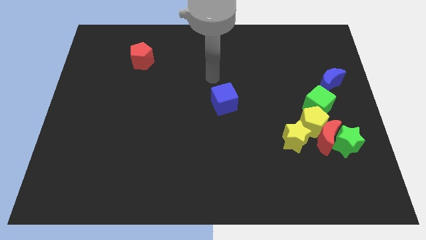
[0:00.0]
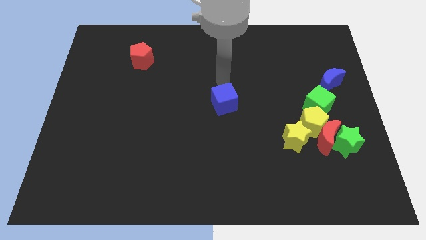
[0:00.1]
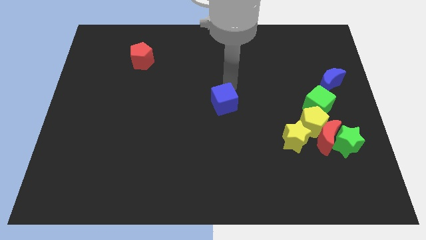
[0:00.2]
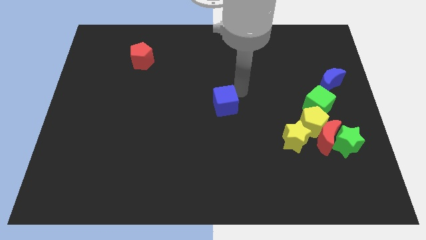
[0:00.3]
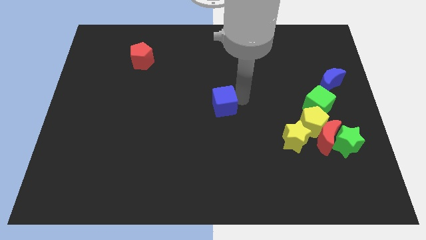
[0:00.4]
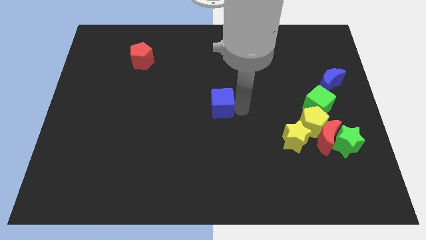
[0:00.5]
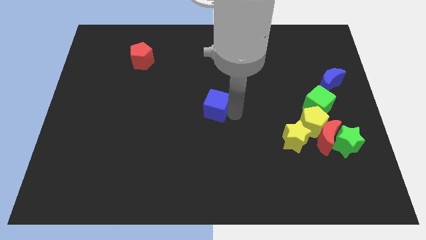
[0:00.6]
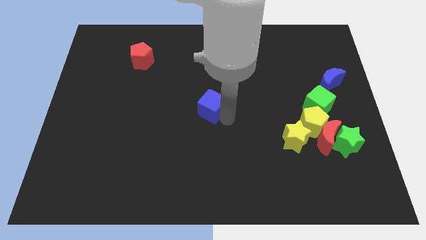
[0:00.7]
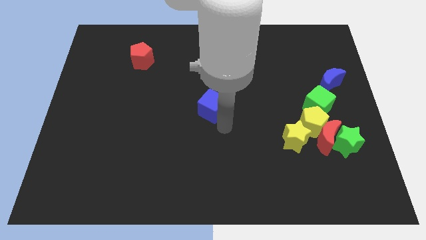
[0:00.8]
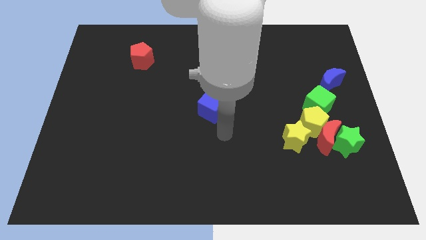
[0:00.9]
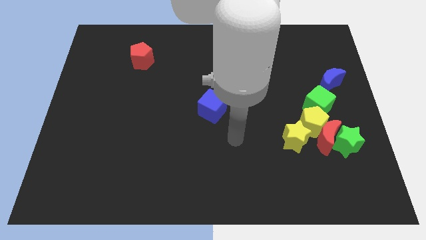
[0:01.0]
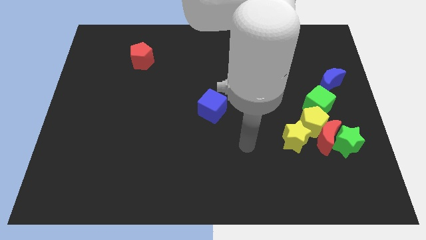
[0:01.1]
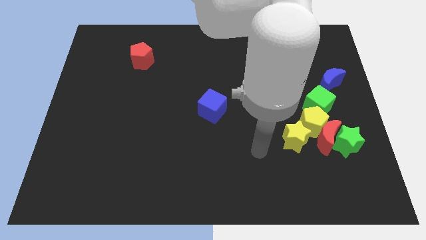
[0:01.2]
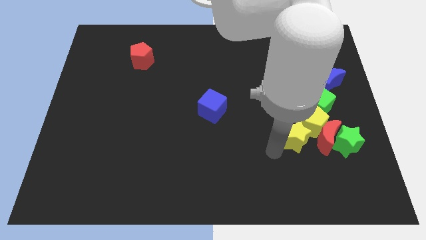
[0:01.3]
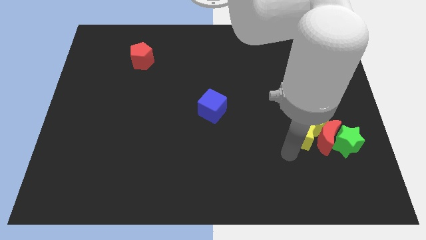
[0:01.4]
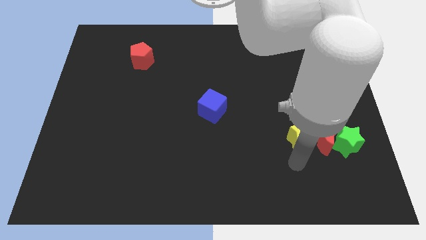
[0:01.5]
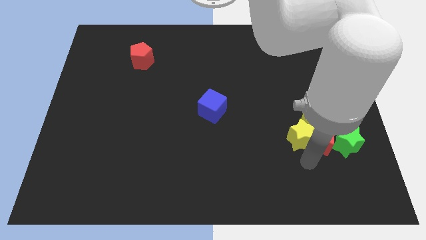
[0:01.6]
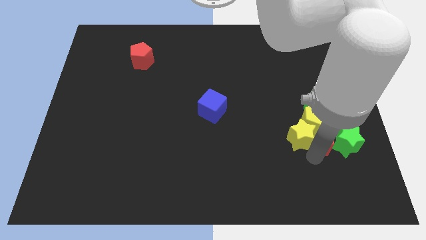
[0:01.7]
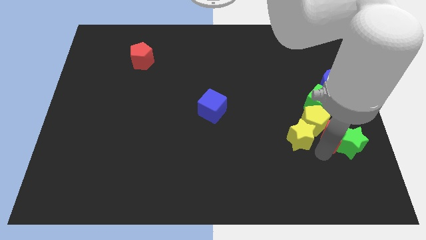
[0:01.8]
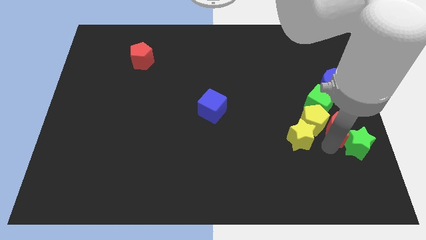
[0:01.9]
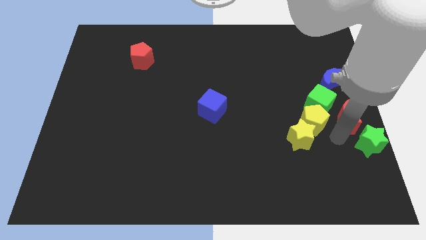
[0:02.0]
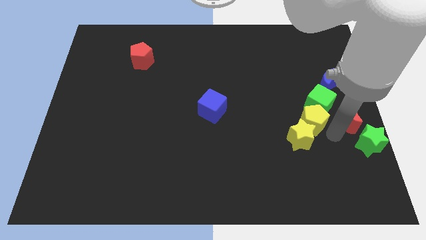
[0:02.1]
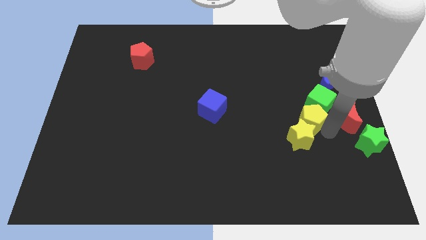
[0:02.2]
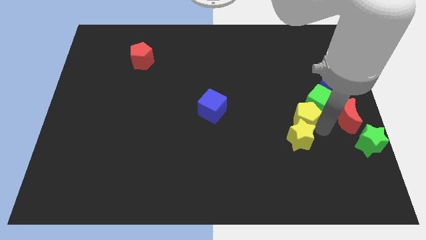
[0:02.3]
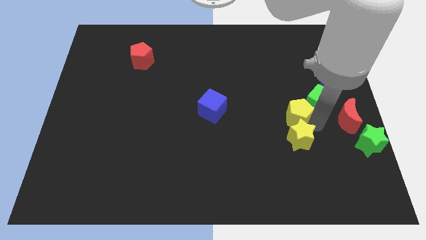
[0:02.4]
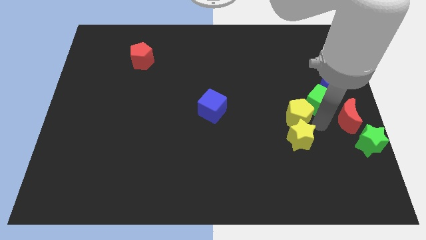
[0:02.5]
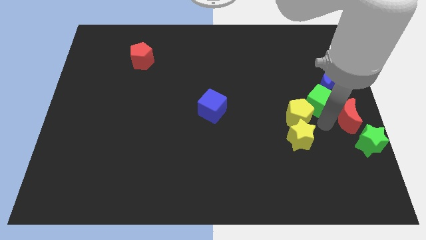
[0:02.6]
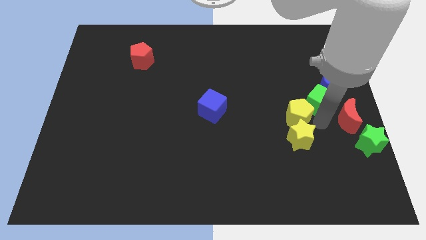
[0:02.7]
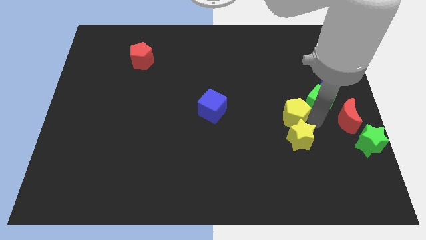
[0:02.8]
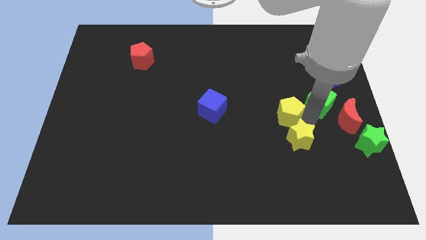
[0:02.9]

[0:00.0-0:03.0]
move the yellow pentagon away from the group of blocks

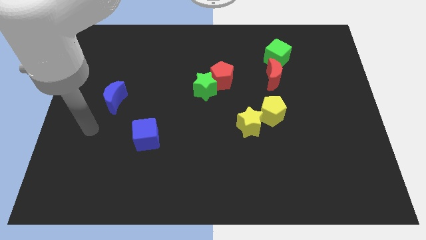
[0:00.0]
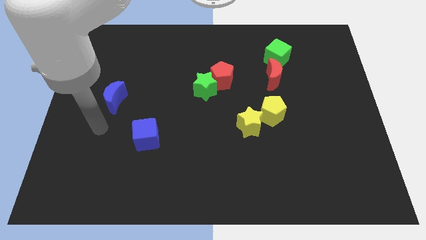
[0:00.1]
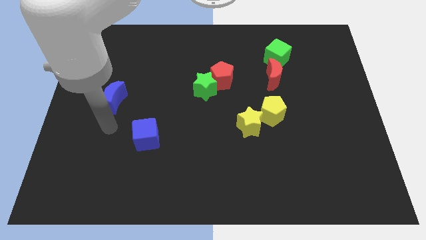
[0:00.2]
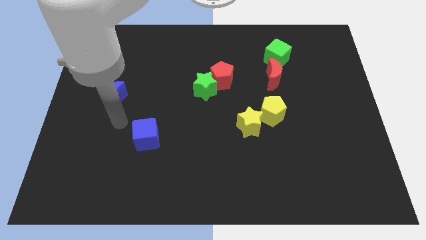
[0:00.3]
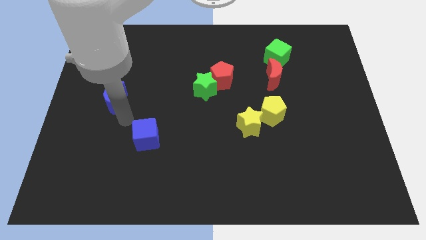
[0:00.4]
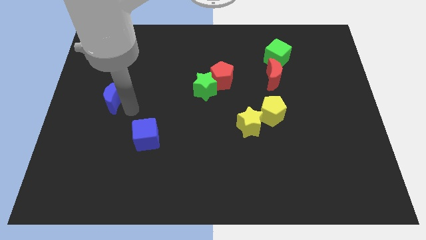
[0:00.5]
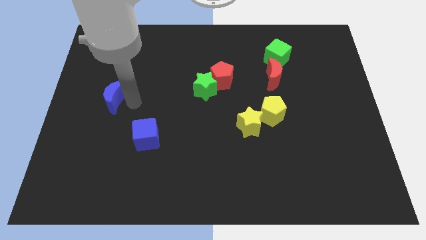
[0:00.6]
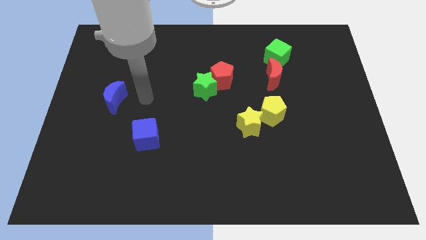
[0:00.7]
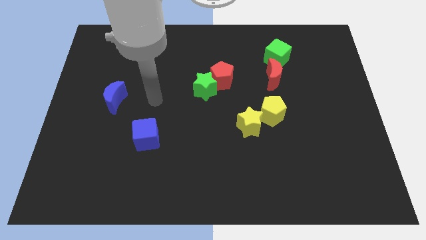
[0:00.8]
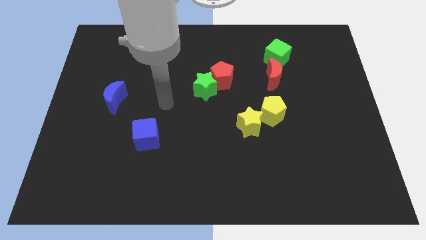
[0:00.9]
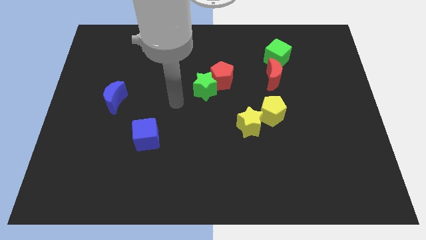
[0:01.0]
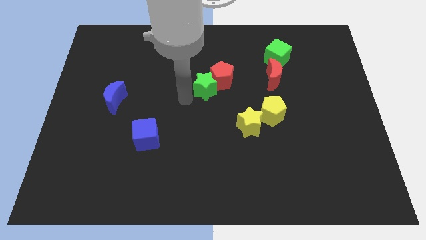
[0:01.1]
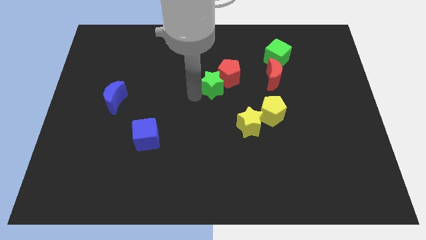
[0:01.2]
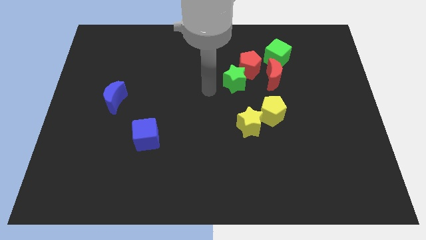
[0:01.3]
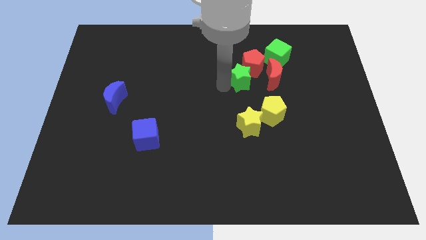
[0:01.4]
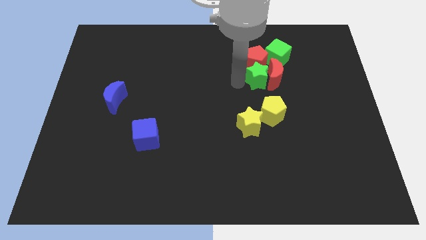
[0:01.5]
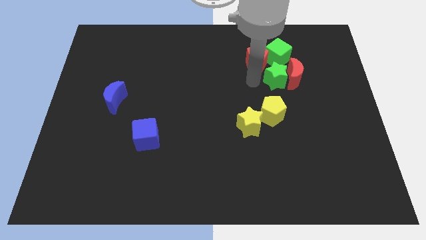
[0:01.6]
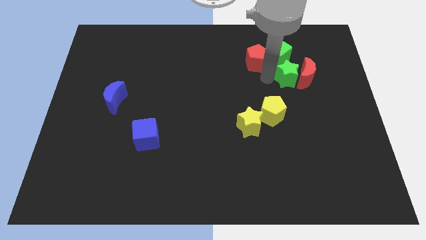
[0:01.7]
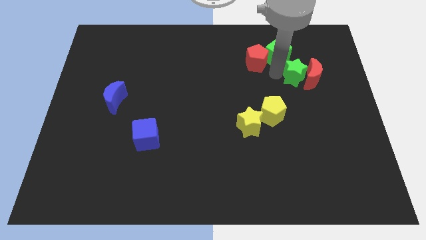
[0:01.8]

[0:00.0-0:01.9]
separate the red pentagon from the green star

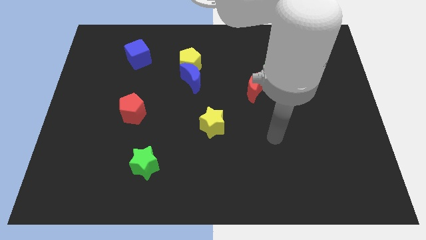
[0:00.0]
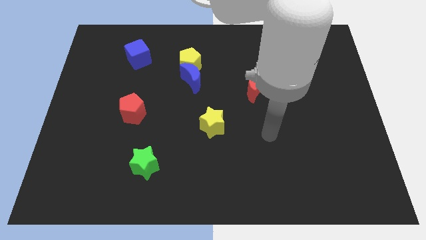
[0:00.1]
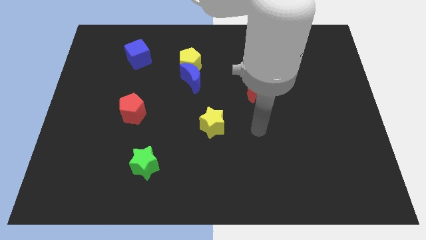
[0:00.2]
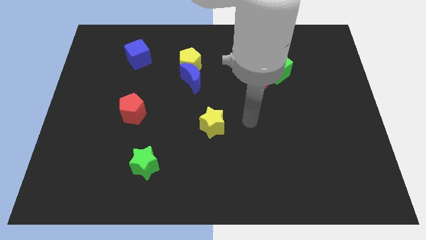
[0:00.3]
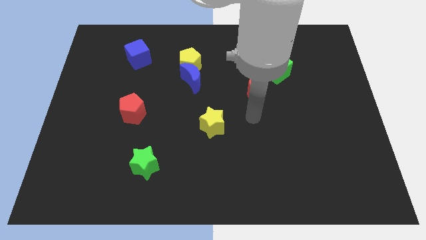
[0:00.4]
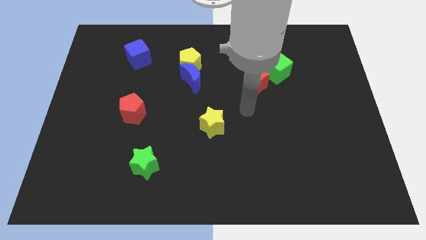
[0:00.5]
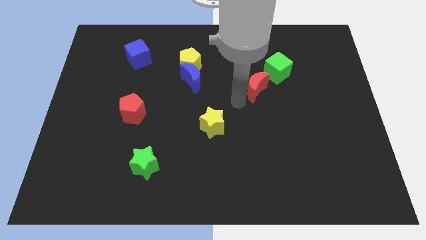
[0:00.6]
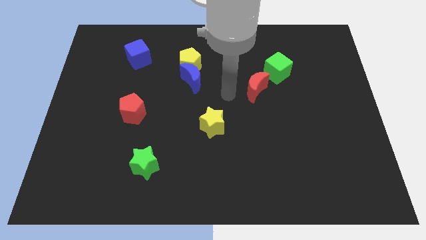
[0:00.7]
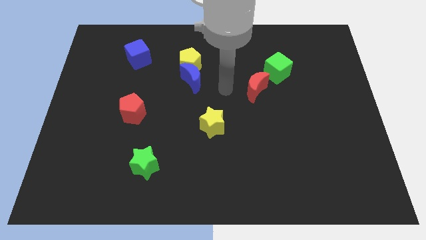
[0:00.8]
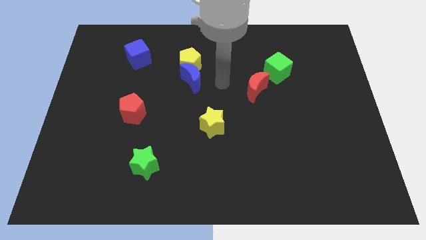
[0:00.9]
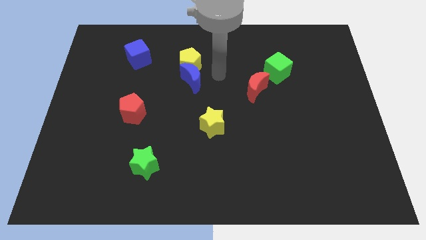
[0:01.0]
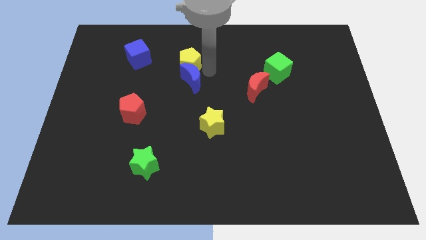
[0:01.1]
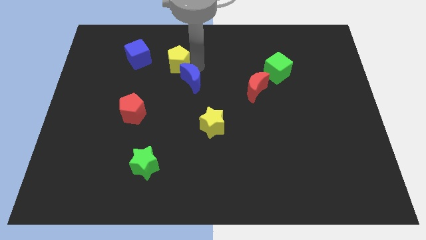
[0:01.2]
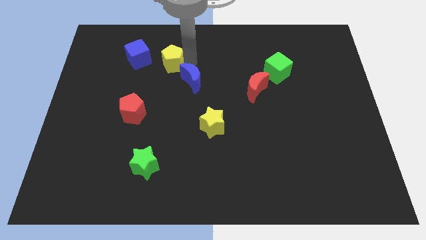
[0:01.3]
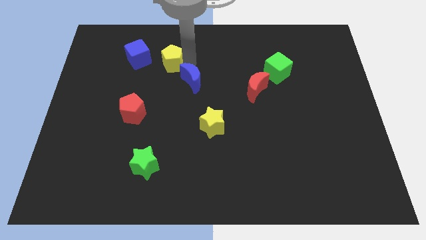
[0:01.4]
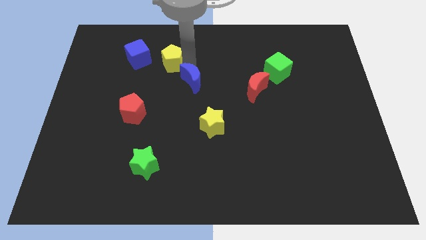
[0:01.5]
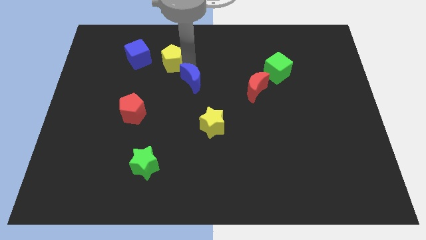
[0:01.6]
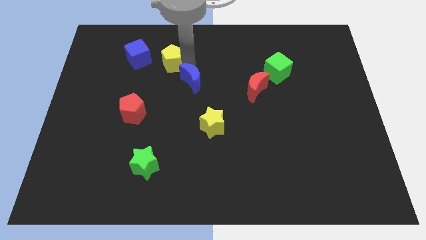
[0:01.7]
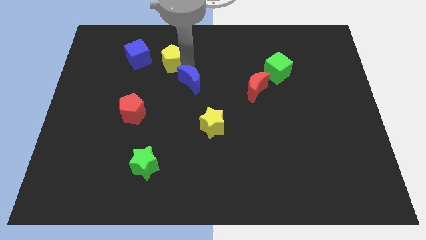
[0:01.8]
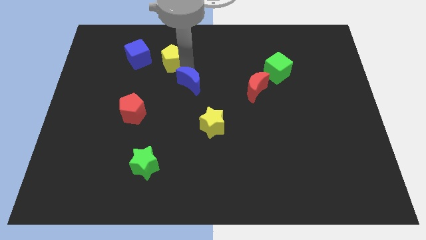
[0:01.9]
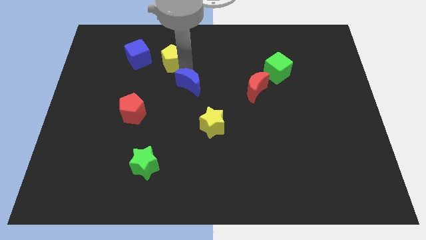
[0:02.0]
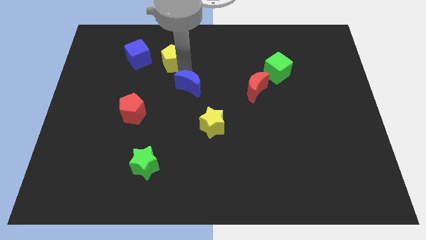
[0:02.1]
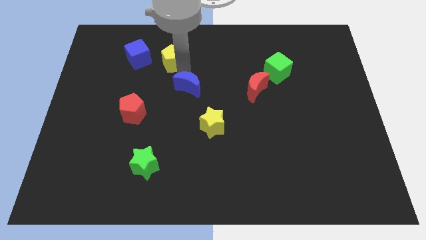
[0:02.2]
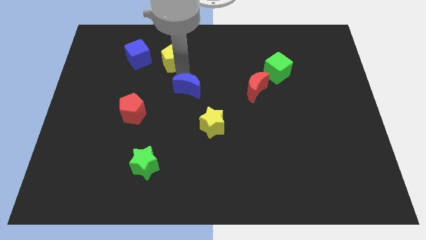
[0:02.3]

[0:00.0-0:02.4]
pull the blue moon apart from the yellow pentagon

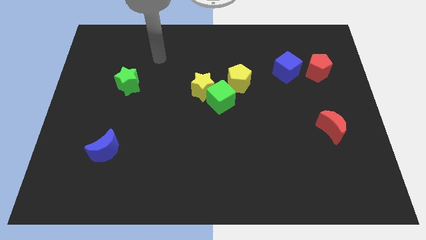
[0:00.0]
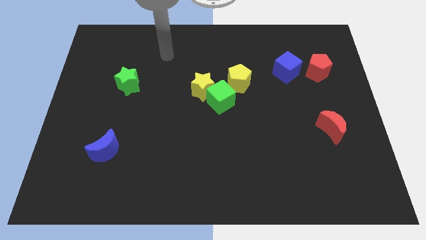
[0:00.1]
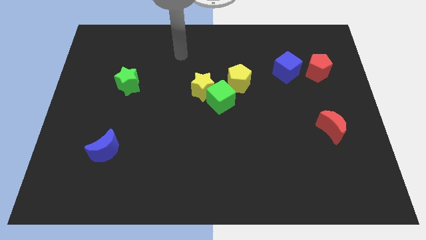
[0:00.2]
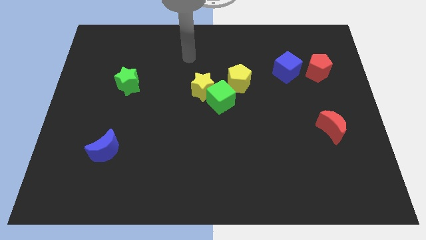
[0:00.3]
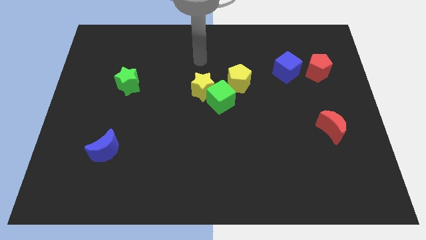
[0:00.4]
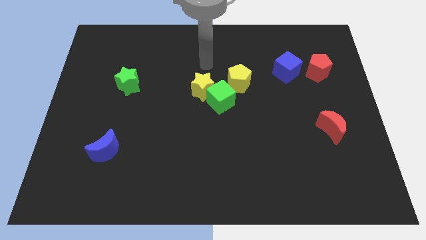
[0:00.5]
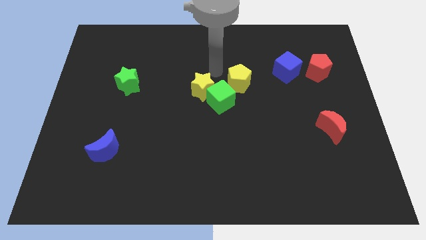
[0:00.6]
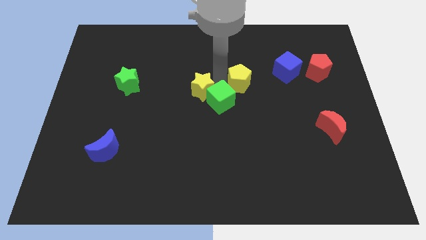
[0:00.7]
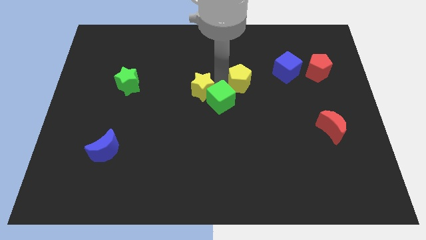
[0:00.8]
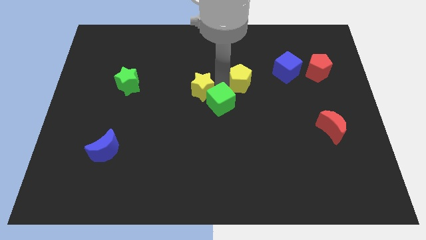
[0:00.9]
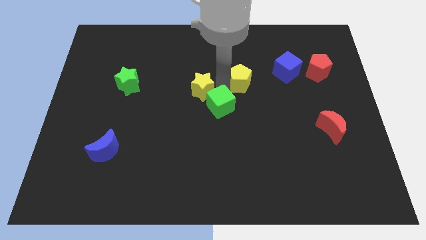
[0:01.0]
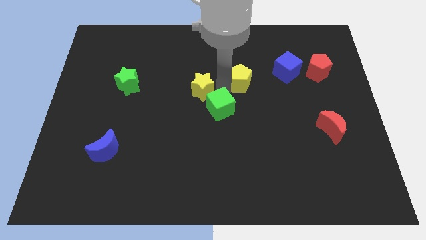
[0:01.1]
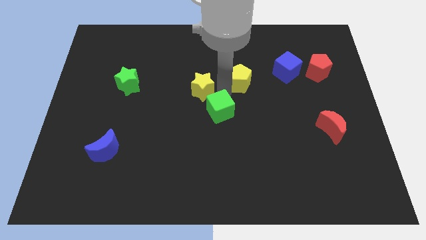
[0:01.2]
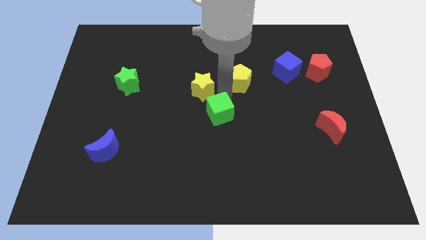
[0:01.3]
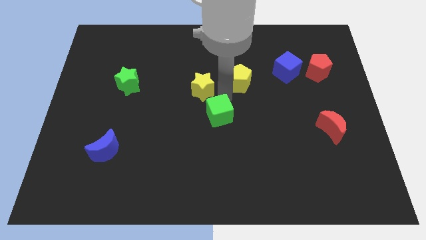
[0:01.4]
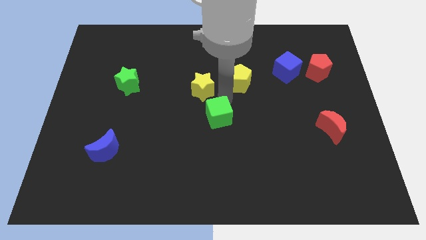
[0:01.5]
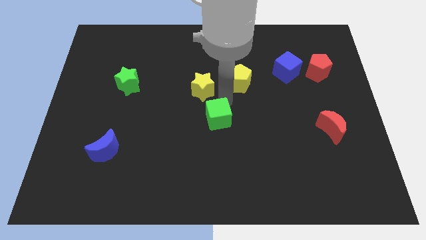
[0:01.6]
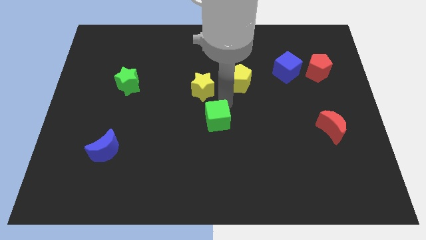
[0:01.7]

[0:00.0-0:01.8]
pull the green cube apart from the yellow star and yellow pentagon

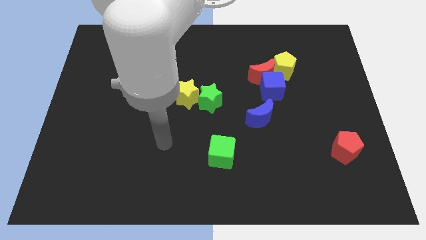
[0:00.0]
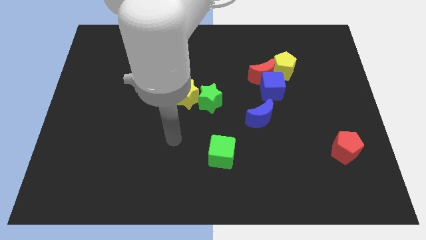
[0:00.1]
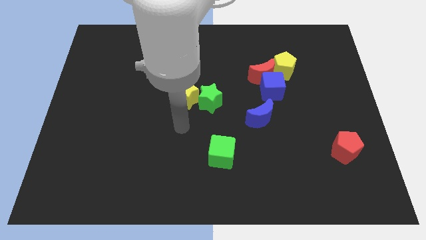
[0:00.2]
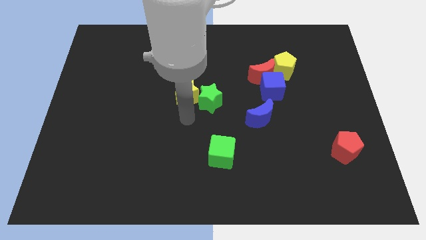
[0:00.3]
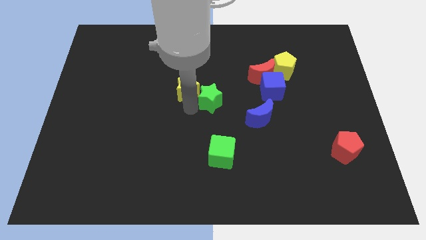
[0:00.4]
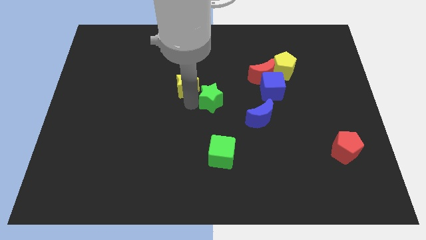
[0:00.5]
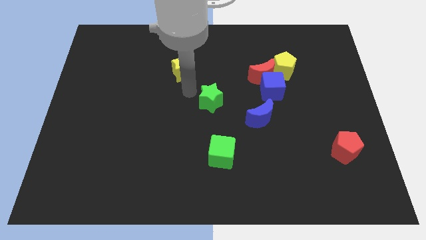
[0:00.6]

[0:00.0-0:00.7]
separate the green star from the yellow star
